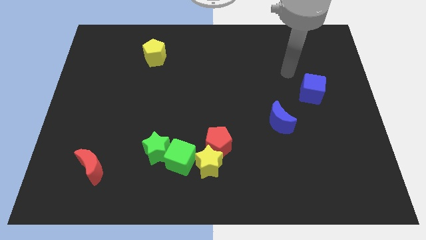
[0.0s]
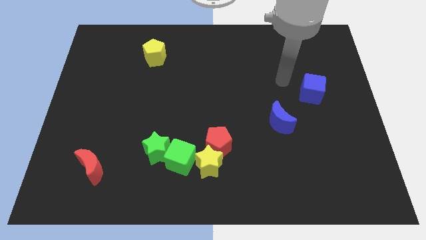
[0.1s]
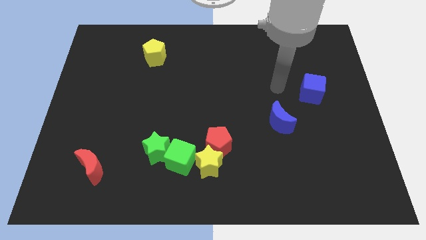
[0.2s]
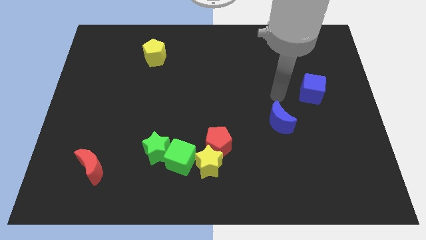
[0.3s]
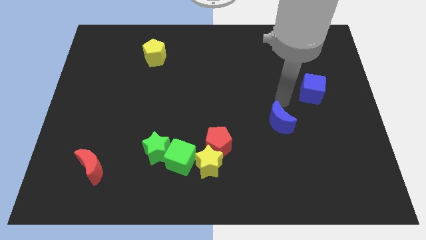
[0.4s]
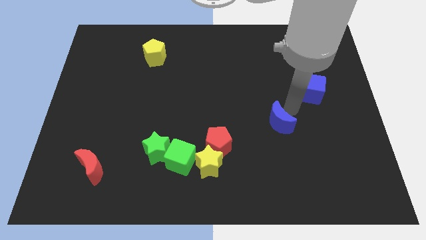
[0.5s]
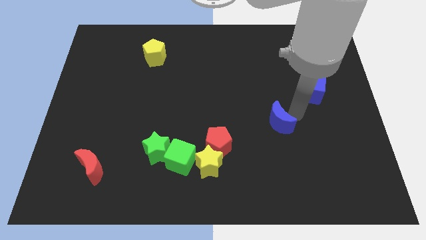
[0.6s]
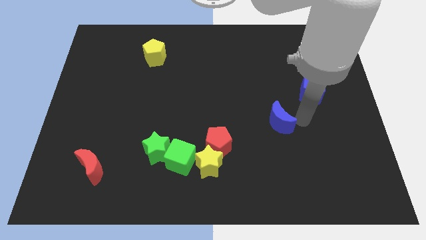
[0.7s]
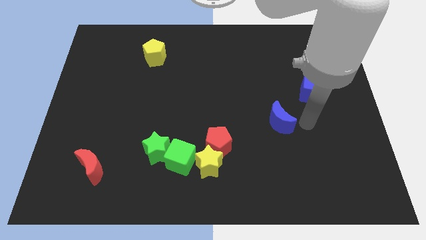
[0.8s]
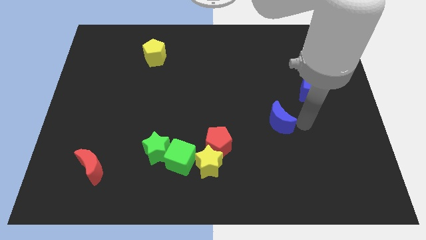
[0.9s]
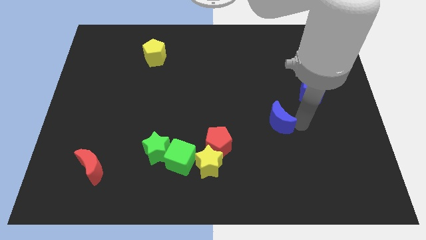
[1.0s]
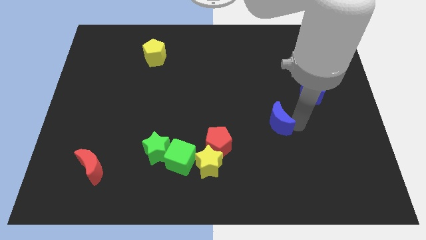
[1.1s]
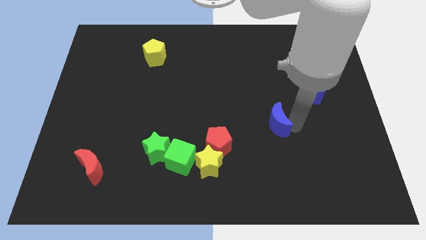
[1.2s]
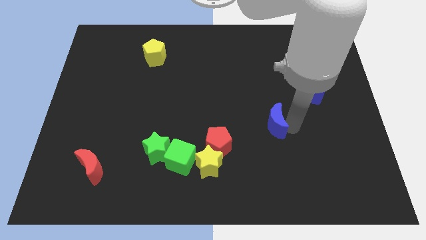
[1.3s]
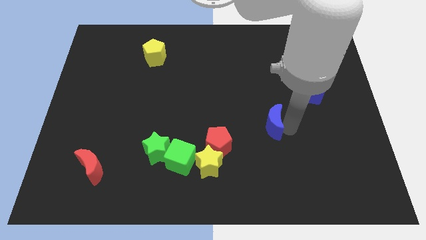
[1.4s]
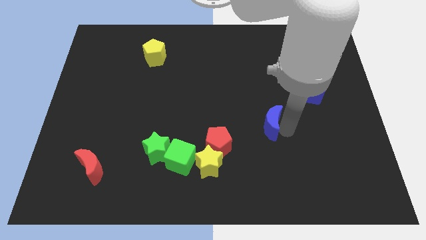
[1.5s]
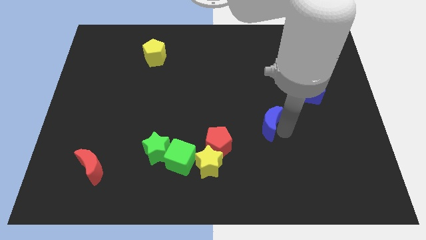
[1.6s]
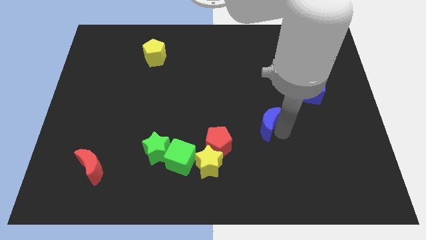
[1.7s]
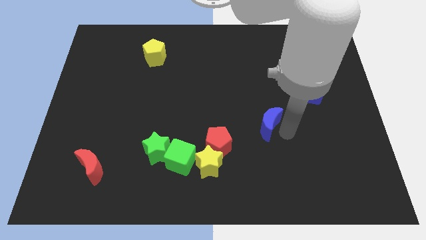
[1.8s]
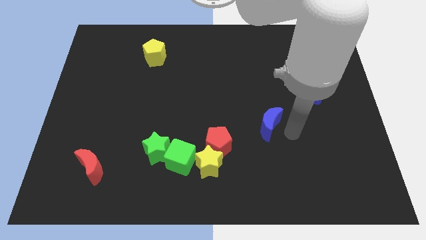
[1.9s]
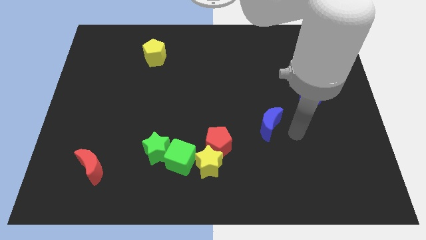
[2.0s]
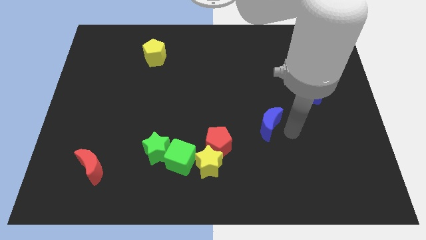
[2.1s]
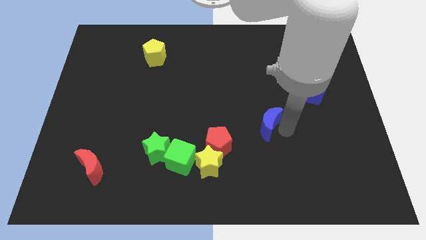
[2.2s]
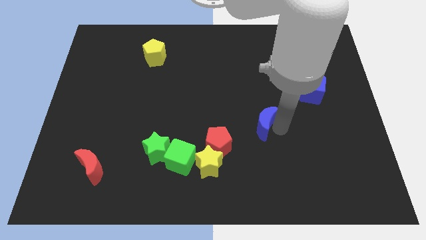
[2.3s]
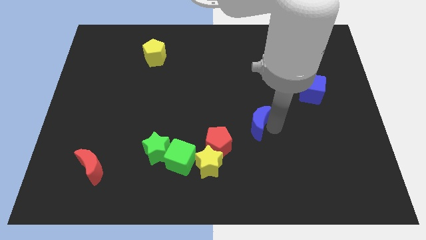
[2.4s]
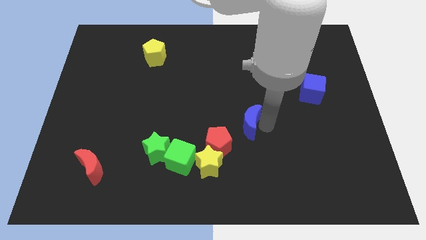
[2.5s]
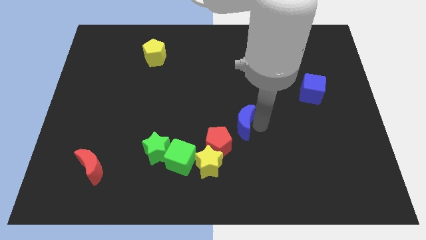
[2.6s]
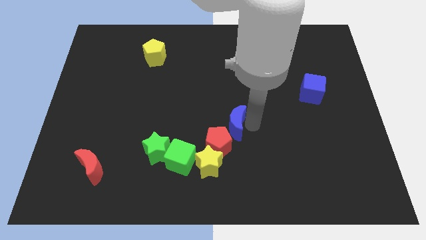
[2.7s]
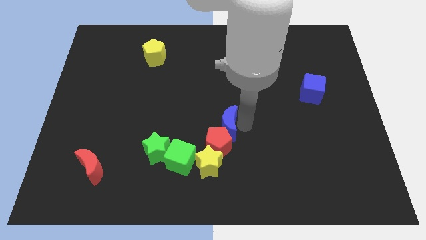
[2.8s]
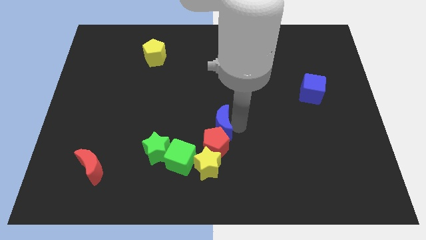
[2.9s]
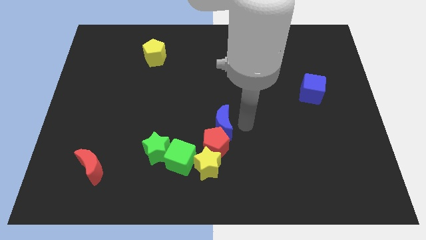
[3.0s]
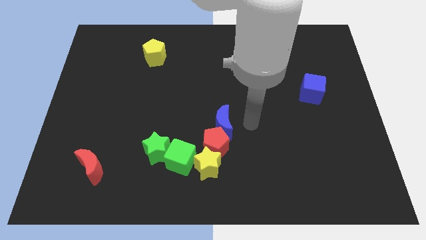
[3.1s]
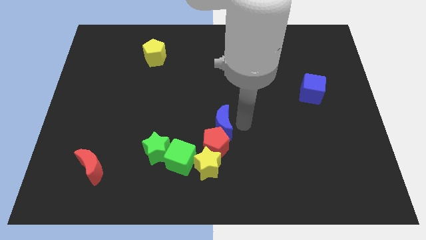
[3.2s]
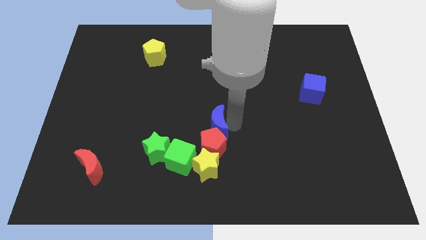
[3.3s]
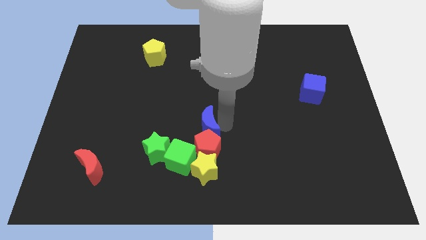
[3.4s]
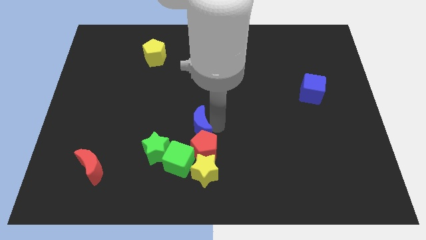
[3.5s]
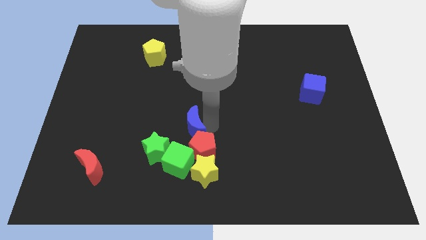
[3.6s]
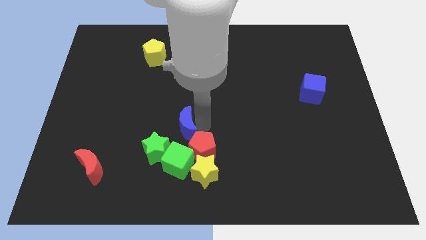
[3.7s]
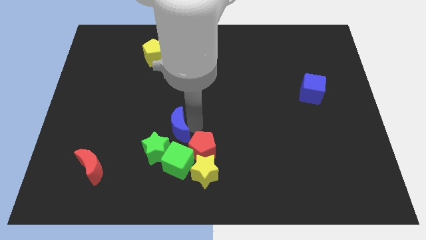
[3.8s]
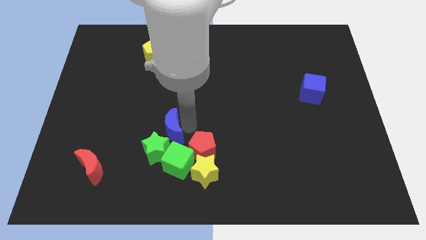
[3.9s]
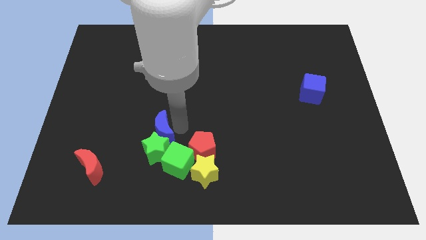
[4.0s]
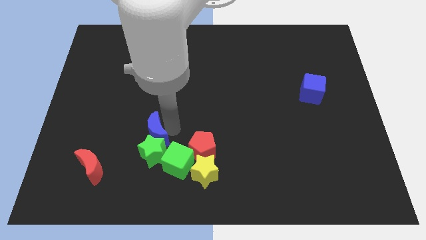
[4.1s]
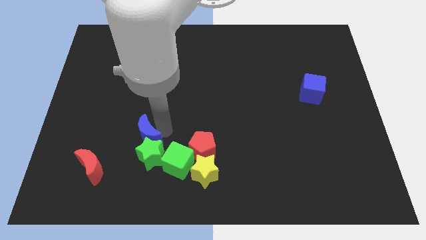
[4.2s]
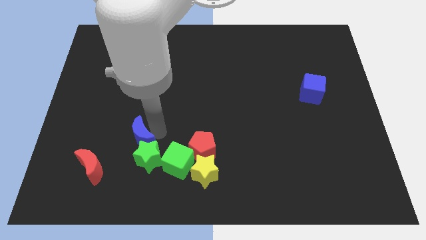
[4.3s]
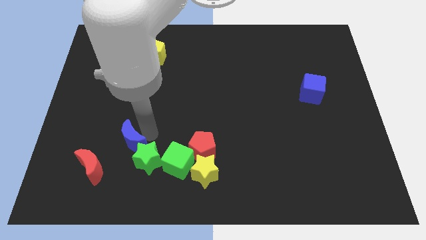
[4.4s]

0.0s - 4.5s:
push the blue moon to the left of the green star

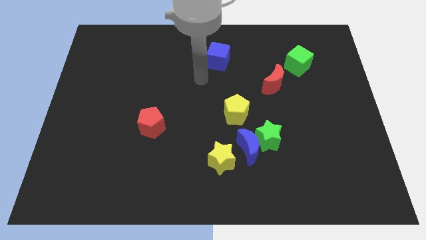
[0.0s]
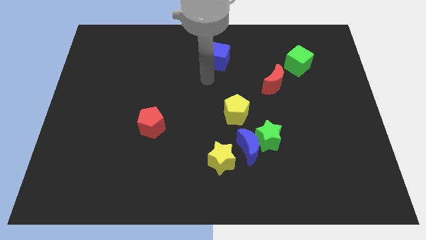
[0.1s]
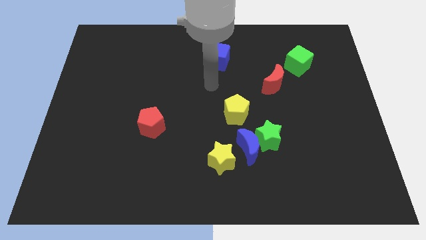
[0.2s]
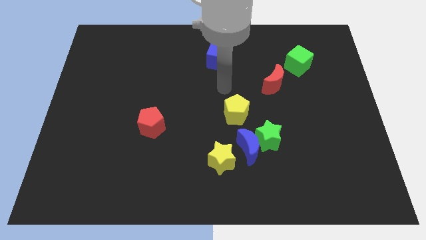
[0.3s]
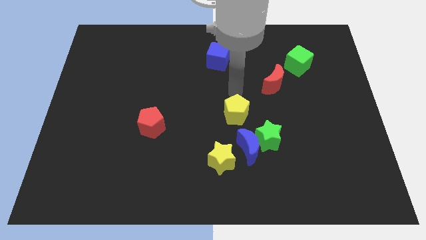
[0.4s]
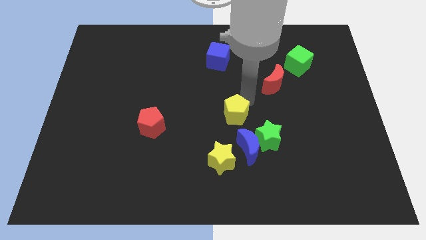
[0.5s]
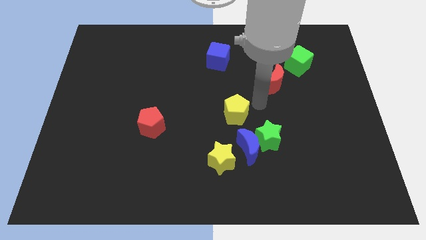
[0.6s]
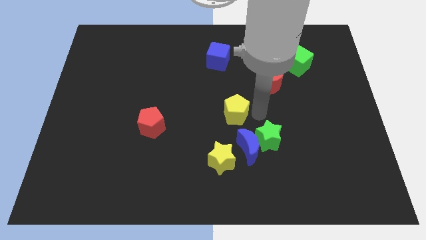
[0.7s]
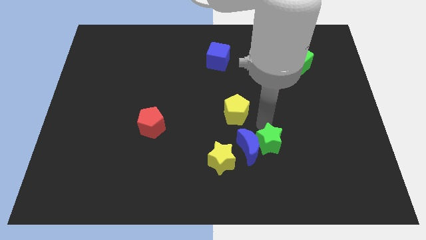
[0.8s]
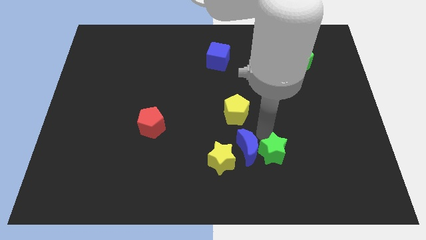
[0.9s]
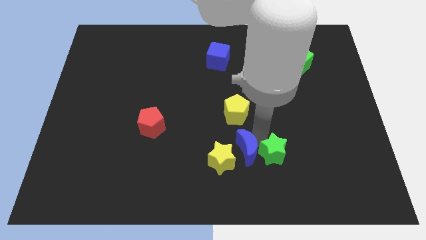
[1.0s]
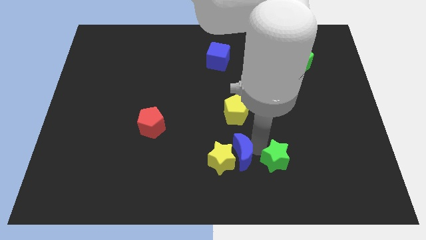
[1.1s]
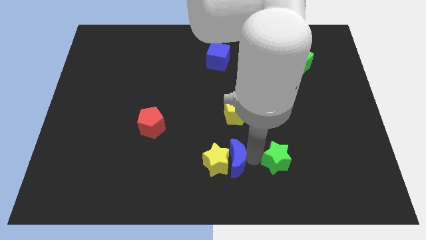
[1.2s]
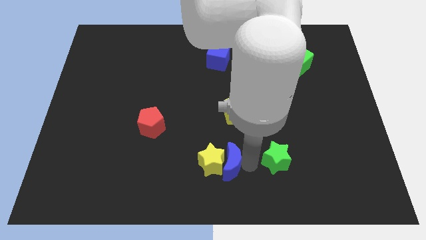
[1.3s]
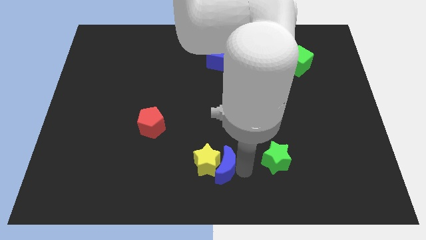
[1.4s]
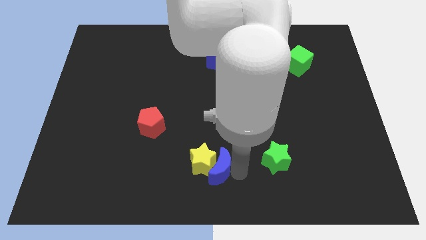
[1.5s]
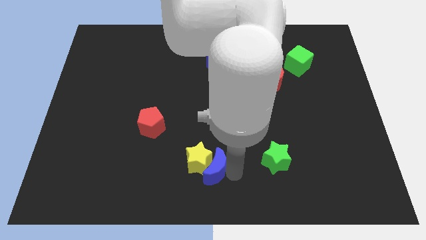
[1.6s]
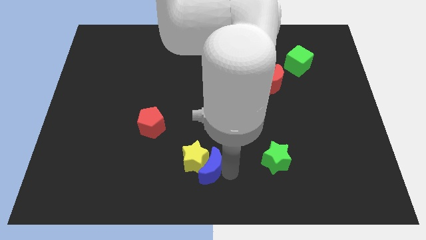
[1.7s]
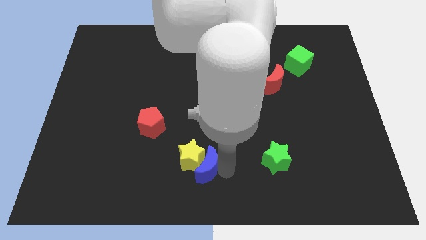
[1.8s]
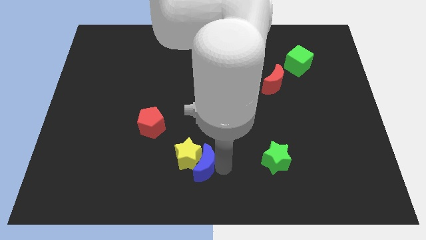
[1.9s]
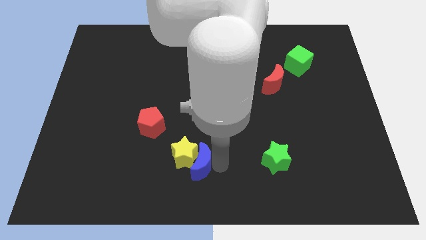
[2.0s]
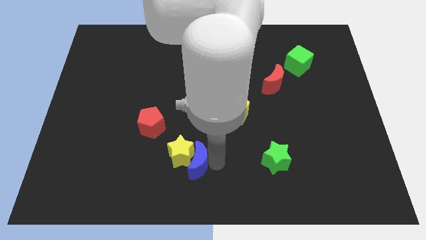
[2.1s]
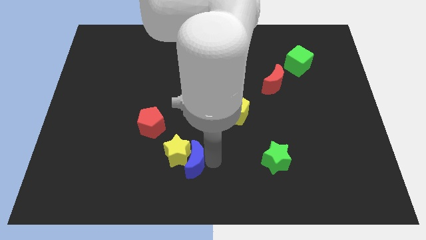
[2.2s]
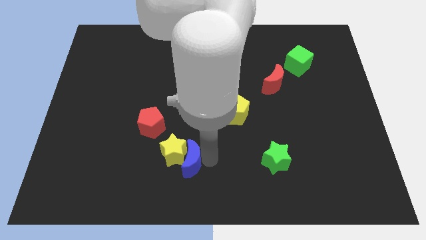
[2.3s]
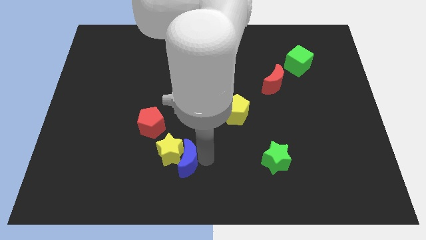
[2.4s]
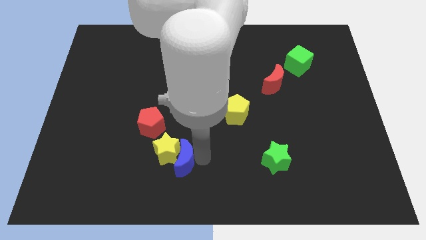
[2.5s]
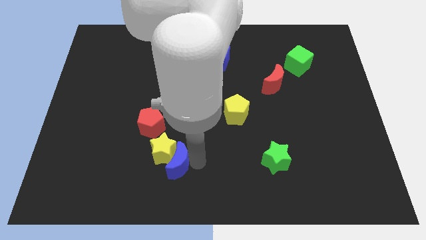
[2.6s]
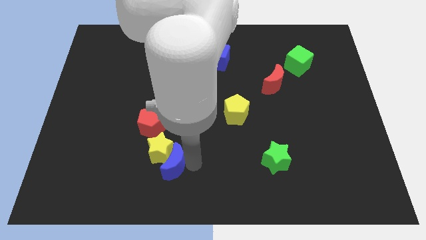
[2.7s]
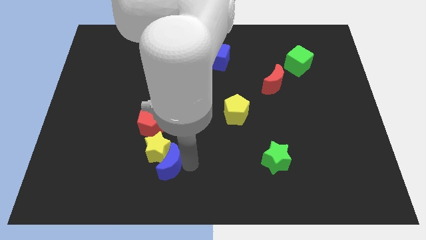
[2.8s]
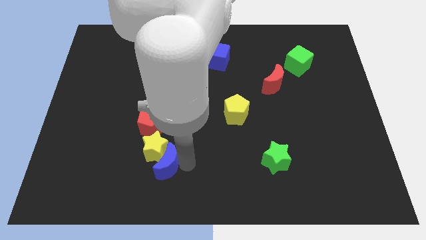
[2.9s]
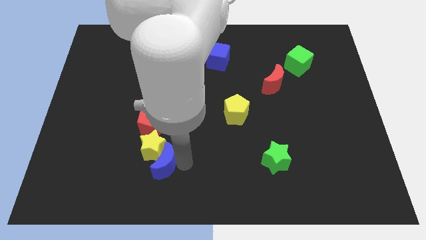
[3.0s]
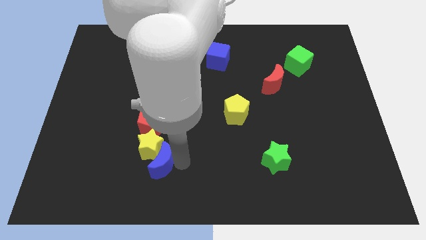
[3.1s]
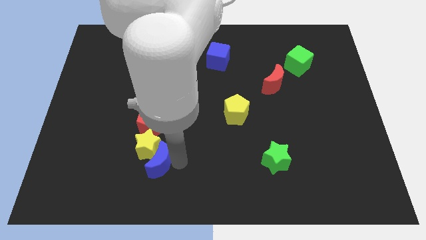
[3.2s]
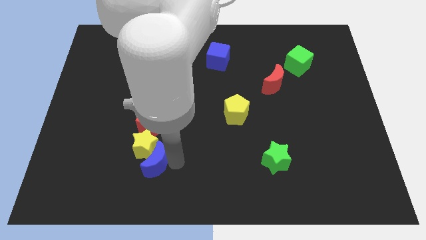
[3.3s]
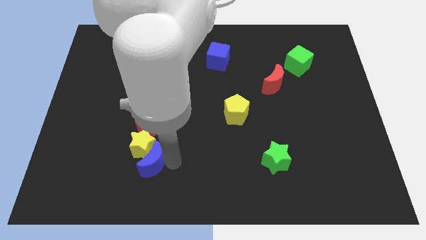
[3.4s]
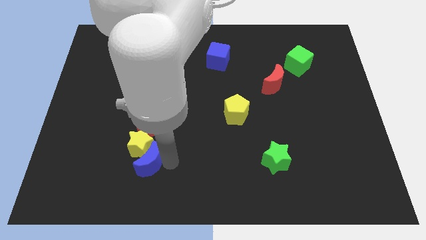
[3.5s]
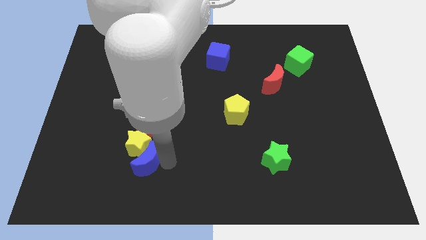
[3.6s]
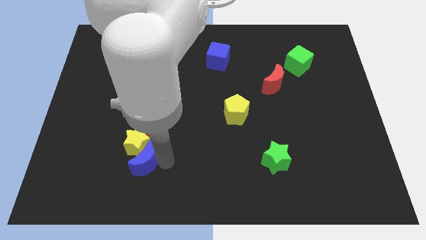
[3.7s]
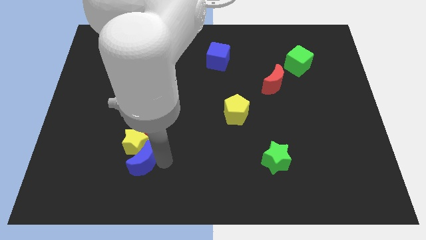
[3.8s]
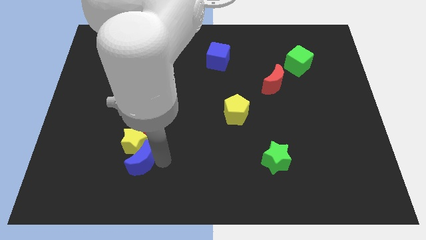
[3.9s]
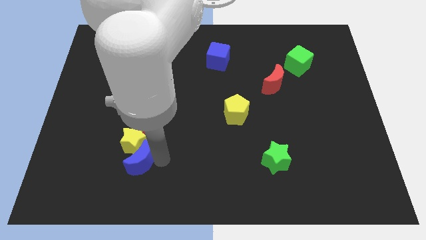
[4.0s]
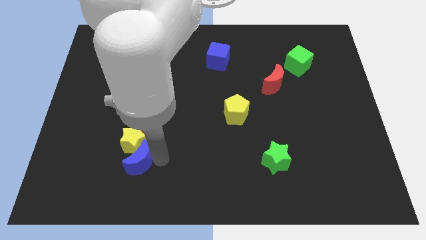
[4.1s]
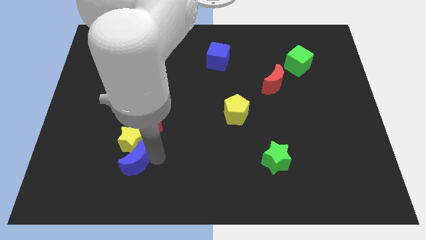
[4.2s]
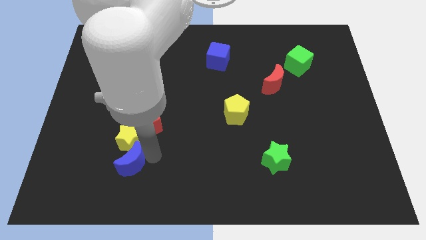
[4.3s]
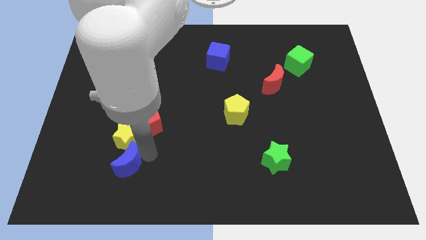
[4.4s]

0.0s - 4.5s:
push the yellow star to the left side of the red pentagon
